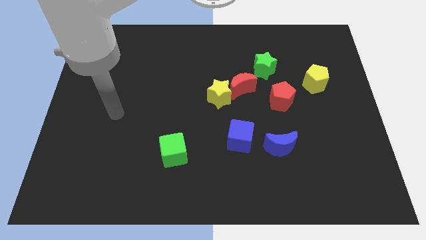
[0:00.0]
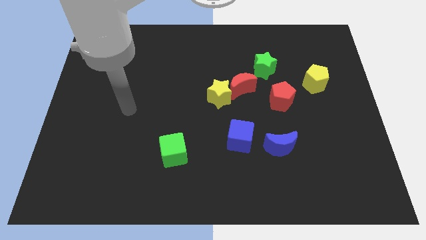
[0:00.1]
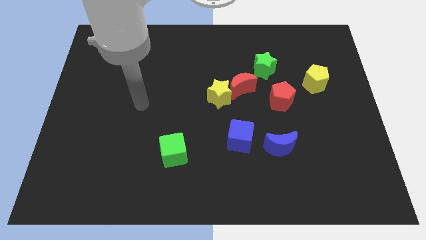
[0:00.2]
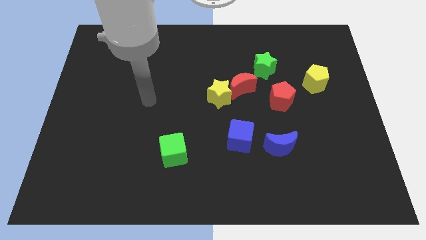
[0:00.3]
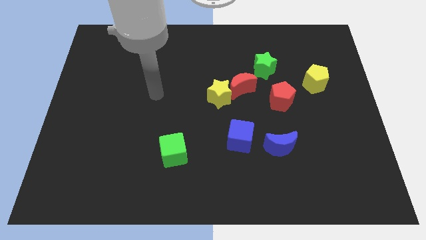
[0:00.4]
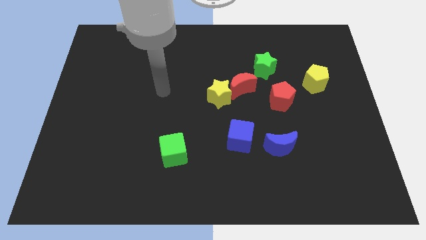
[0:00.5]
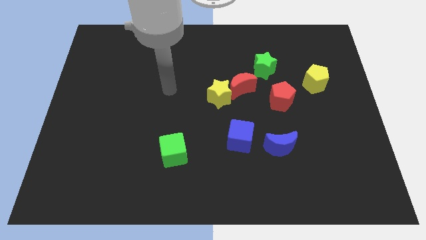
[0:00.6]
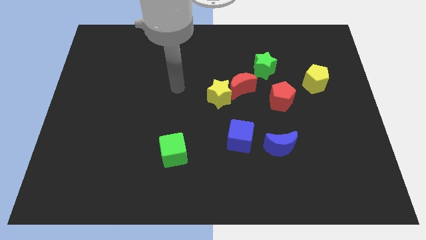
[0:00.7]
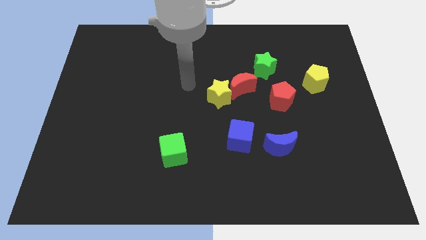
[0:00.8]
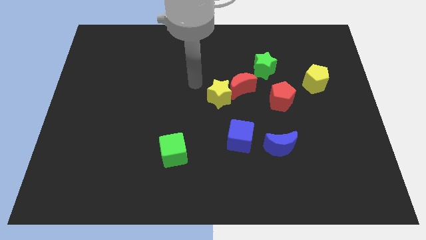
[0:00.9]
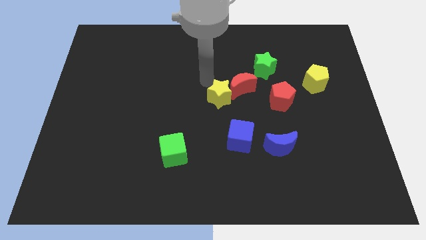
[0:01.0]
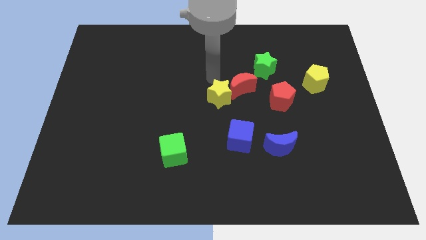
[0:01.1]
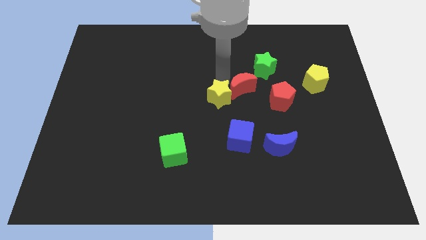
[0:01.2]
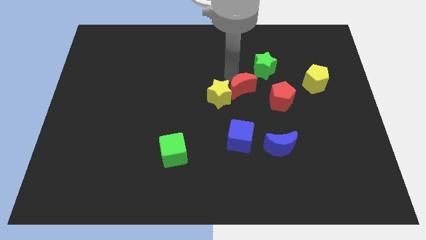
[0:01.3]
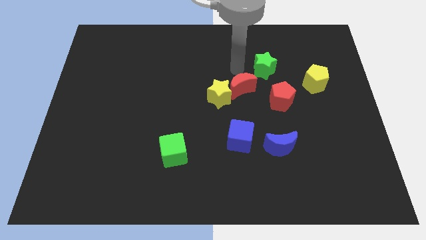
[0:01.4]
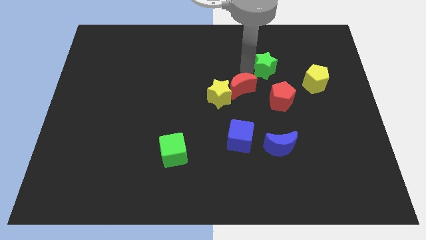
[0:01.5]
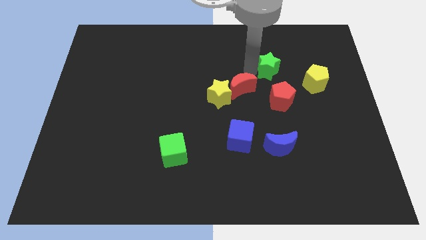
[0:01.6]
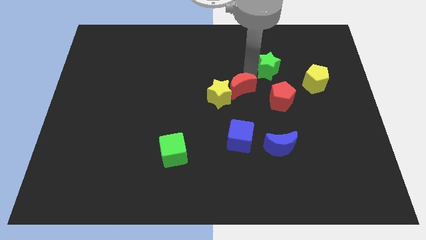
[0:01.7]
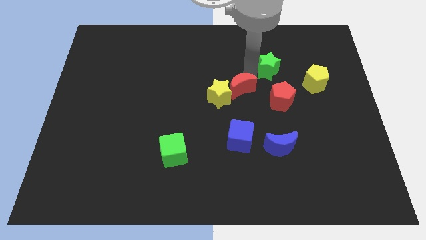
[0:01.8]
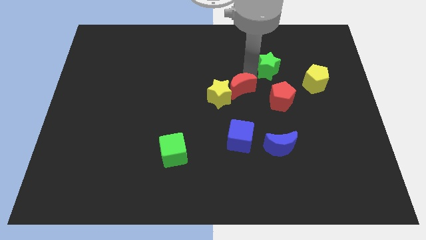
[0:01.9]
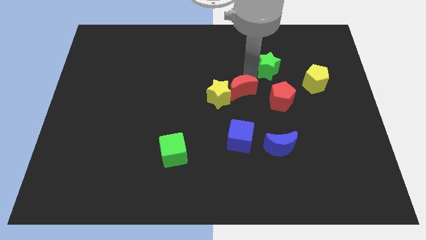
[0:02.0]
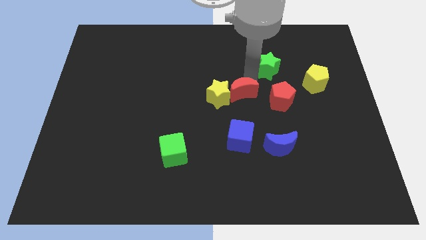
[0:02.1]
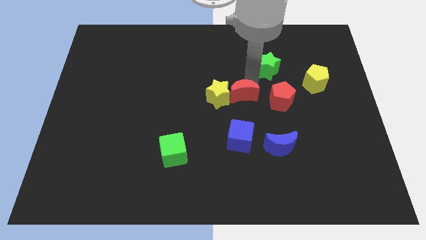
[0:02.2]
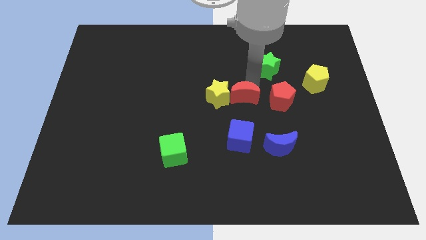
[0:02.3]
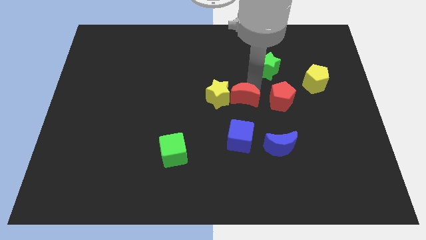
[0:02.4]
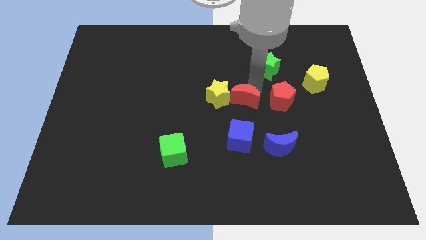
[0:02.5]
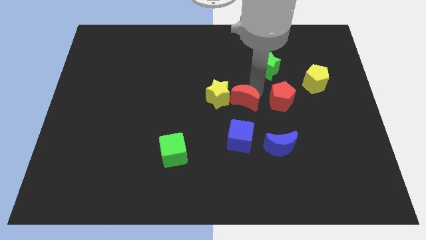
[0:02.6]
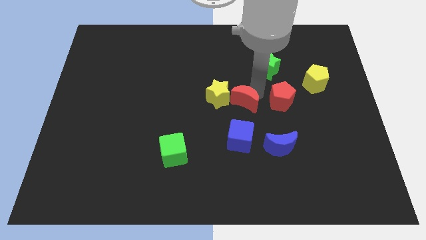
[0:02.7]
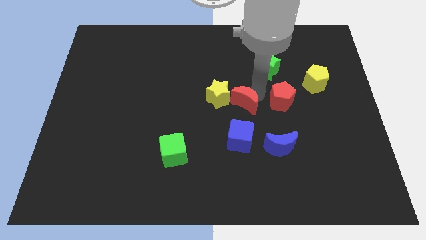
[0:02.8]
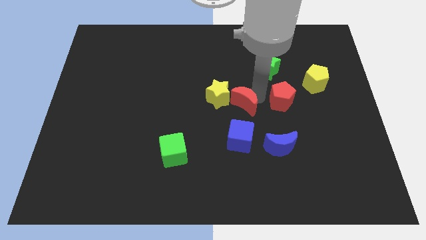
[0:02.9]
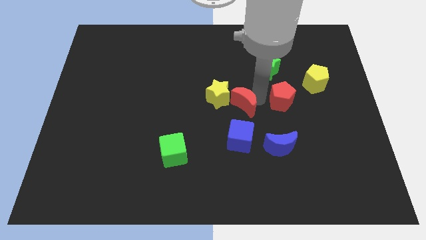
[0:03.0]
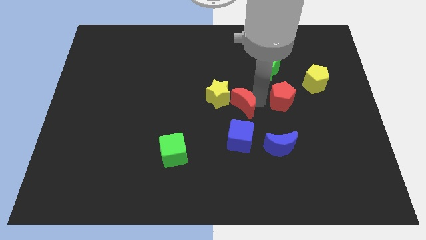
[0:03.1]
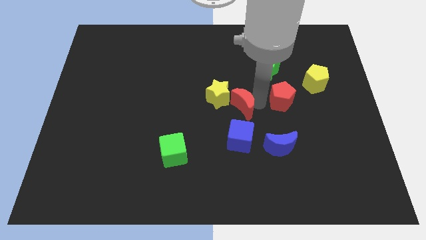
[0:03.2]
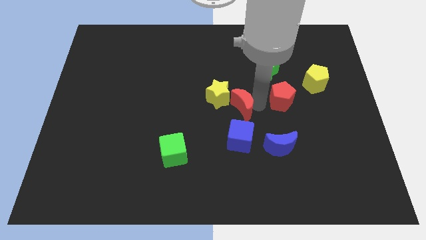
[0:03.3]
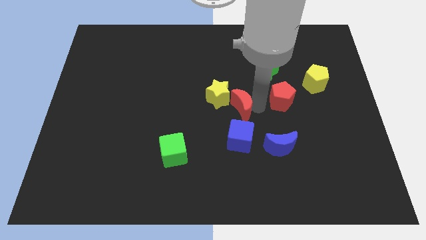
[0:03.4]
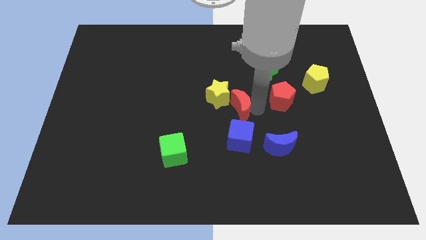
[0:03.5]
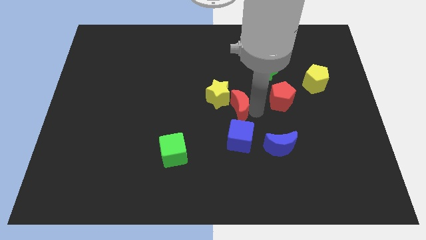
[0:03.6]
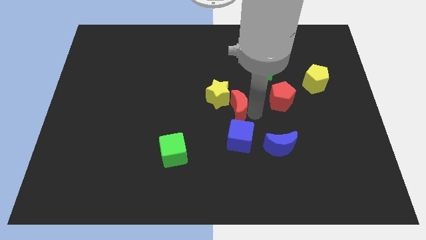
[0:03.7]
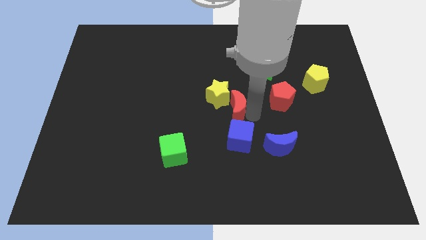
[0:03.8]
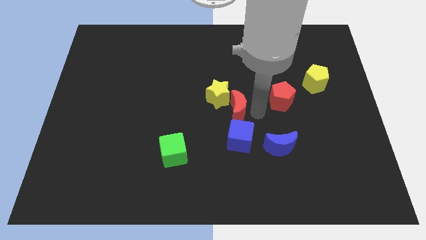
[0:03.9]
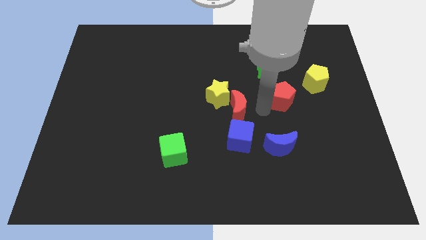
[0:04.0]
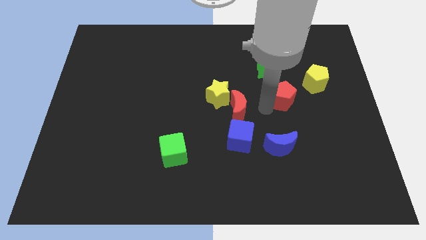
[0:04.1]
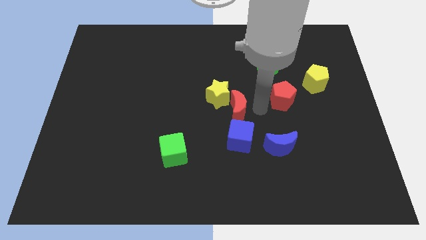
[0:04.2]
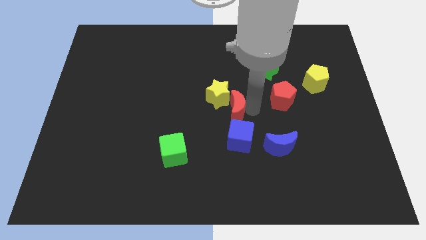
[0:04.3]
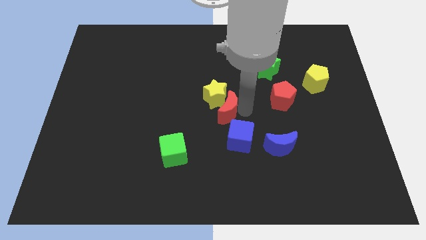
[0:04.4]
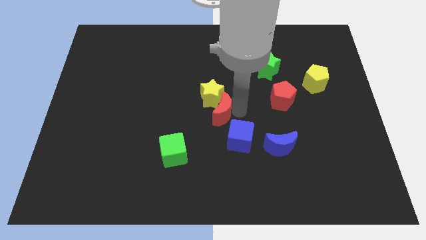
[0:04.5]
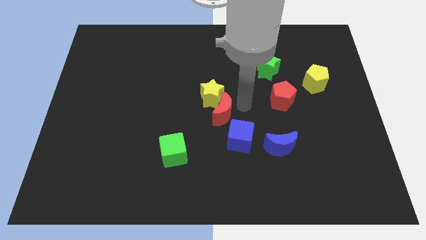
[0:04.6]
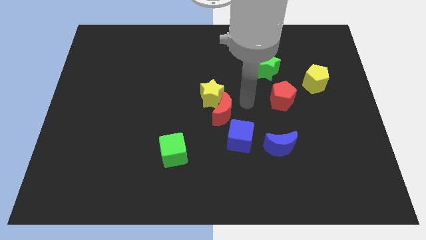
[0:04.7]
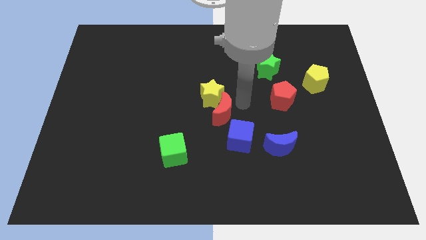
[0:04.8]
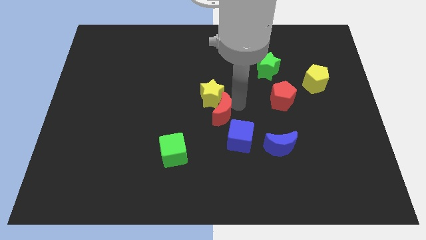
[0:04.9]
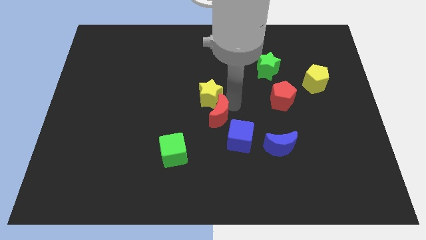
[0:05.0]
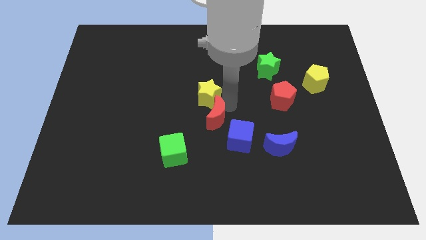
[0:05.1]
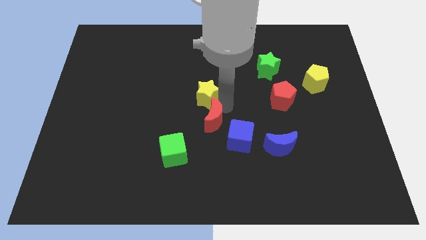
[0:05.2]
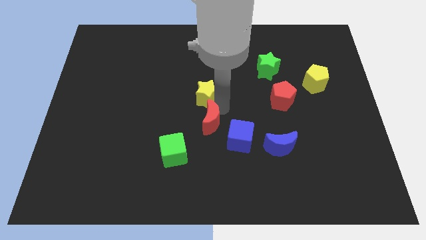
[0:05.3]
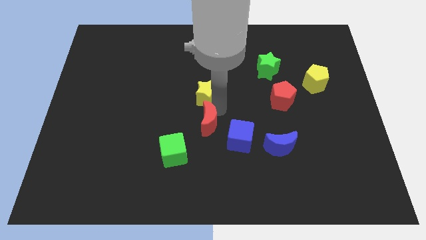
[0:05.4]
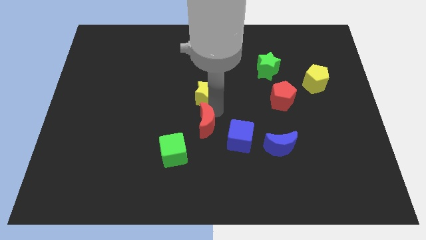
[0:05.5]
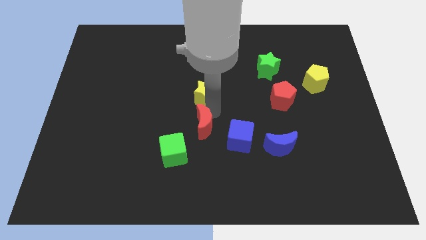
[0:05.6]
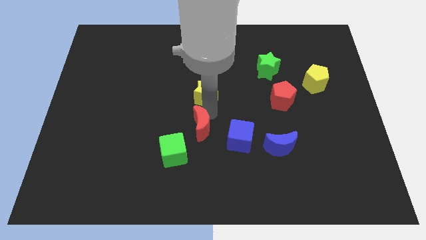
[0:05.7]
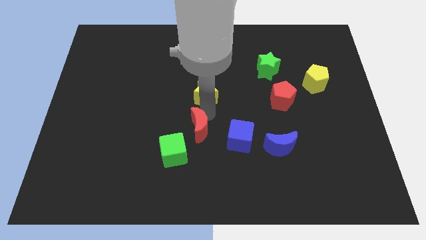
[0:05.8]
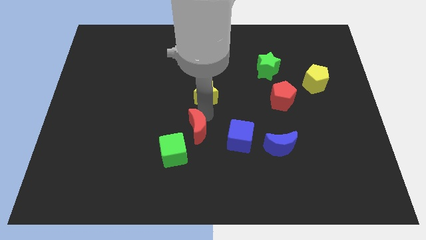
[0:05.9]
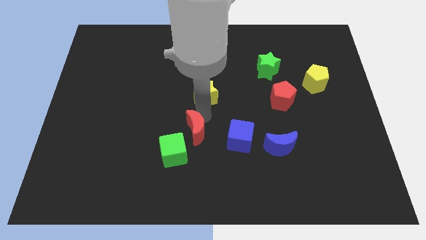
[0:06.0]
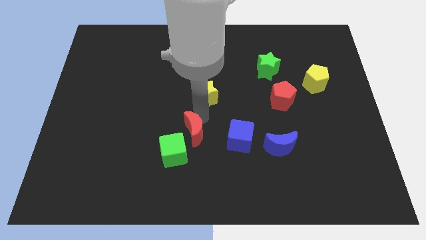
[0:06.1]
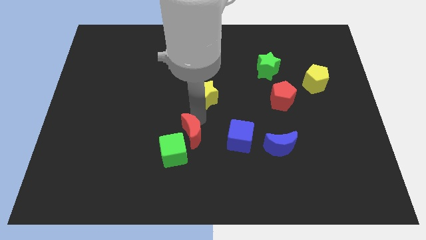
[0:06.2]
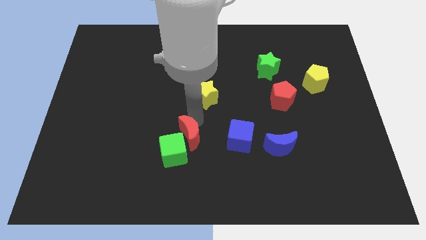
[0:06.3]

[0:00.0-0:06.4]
put the red moon towards the green cube

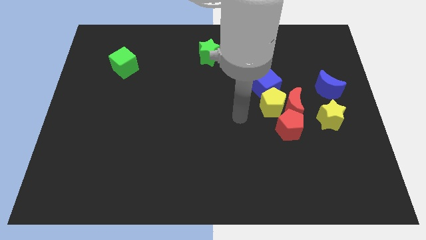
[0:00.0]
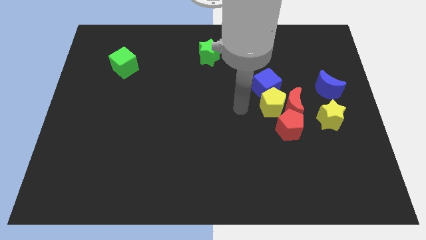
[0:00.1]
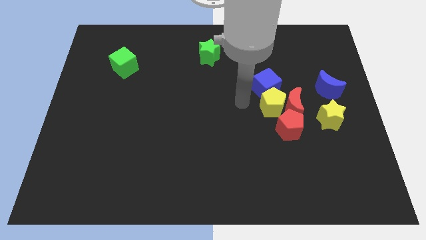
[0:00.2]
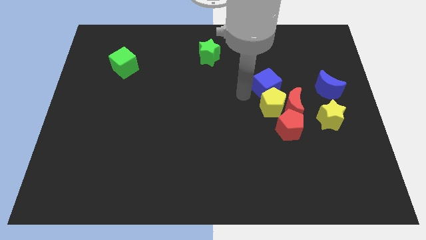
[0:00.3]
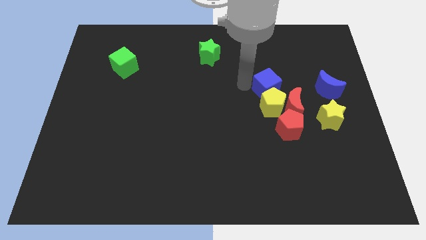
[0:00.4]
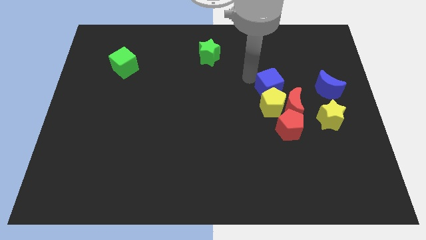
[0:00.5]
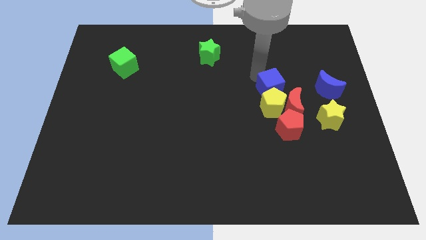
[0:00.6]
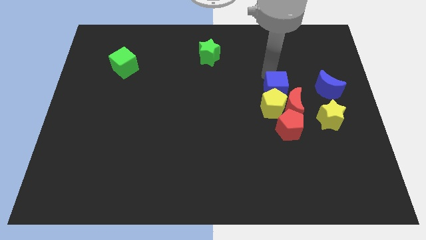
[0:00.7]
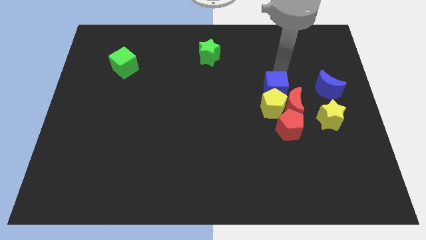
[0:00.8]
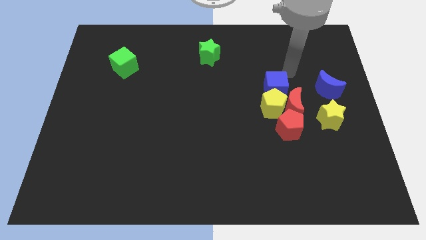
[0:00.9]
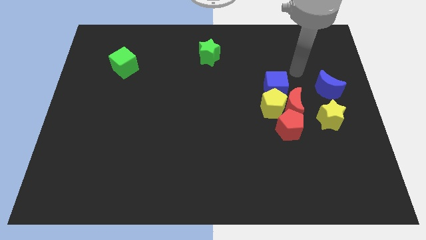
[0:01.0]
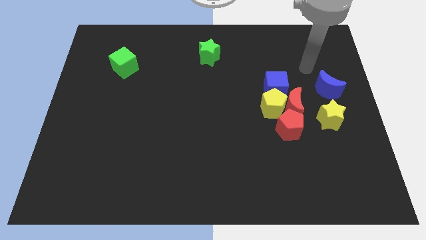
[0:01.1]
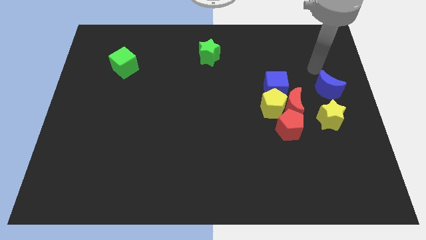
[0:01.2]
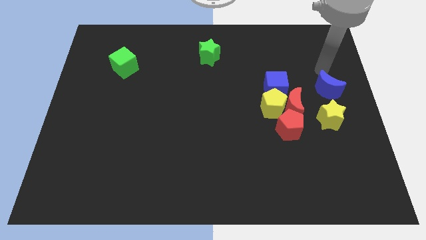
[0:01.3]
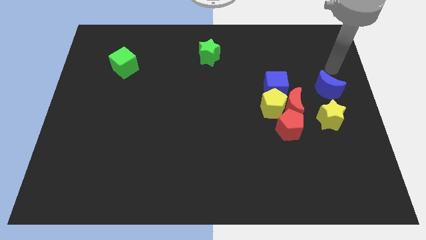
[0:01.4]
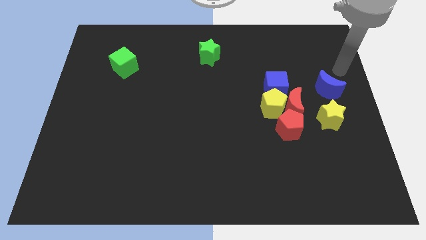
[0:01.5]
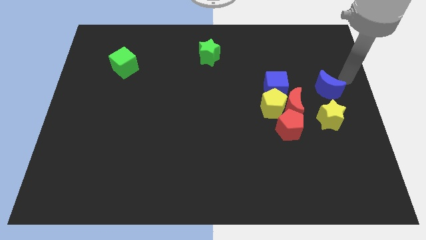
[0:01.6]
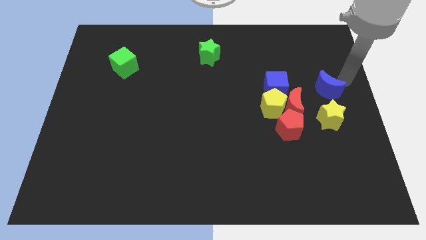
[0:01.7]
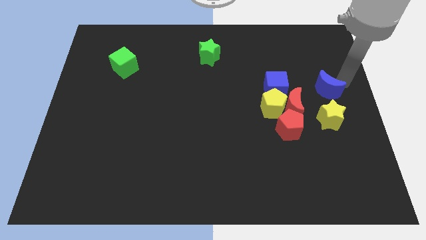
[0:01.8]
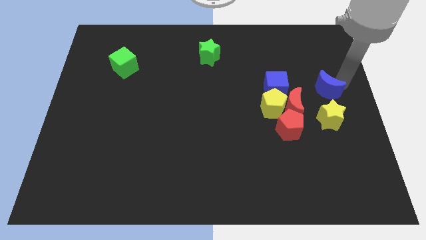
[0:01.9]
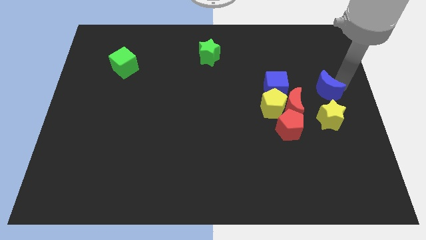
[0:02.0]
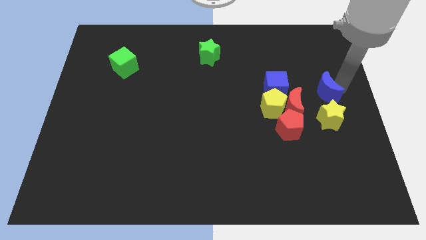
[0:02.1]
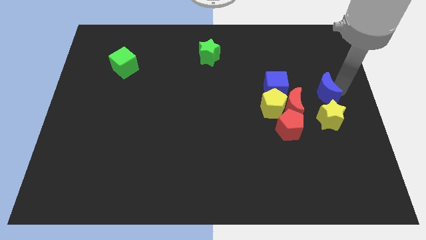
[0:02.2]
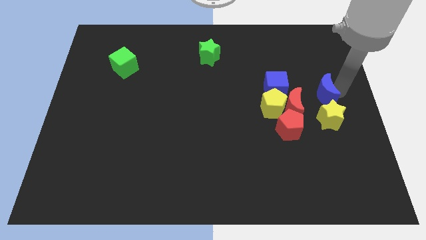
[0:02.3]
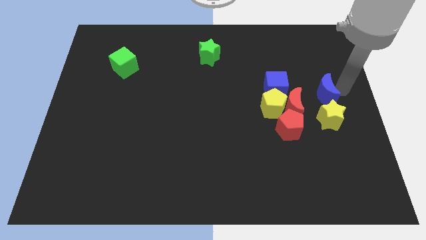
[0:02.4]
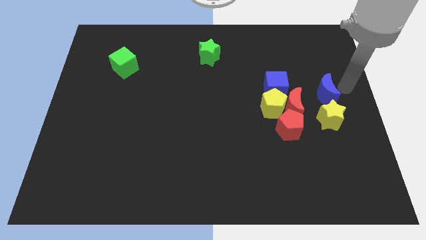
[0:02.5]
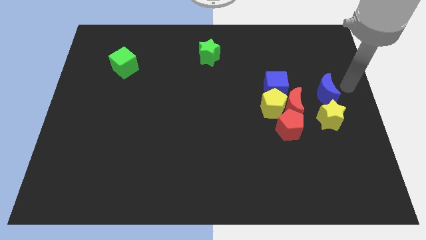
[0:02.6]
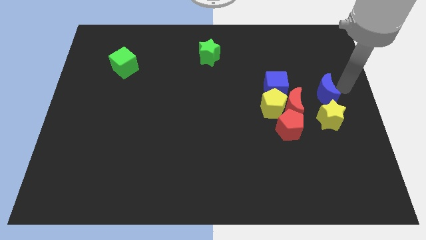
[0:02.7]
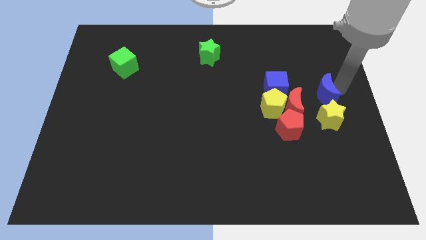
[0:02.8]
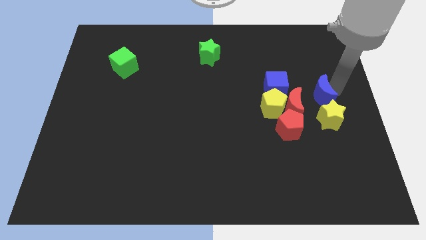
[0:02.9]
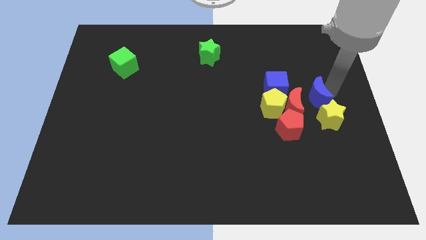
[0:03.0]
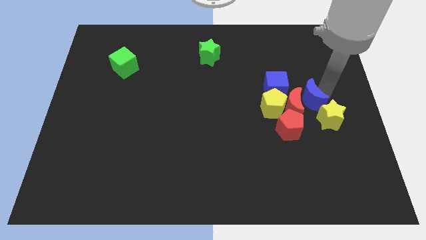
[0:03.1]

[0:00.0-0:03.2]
move the blue moon to the red moon
